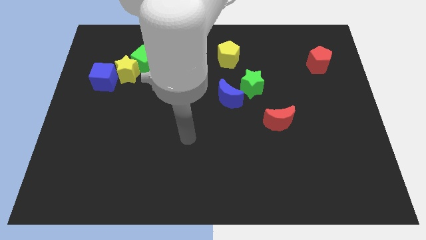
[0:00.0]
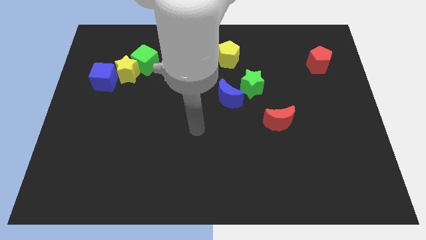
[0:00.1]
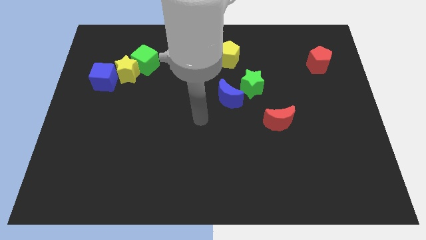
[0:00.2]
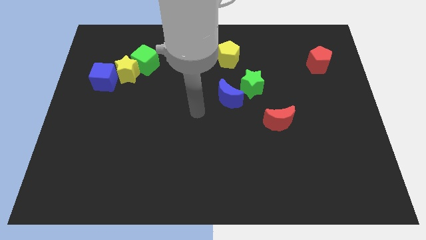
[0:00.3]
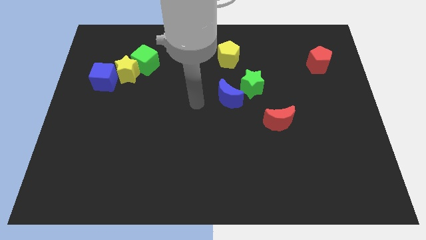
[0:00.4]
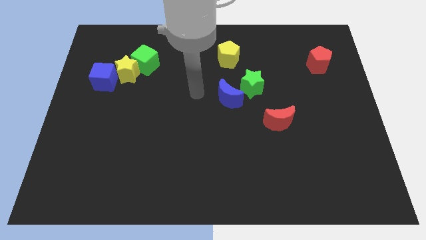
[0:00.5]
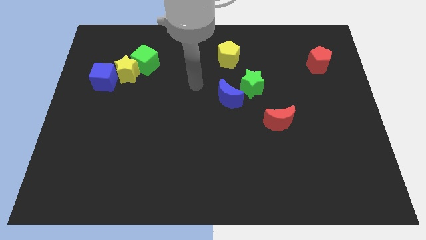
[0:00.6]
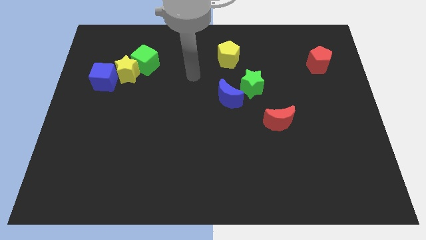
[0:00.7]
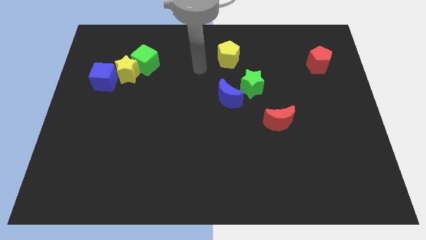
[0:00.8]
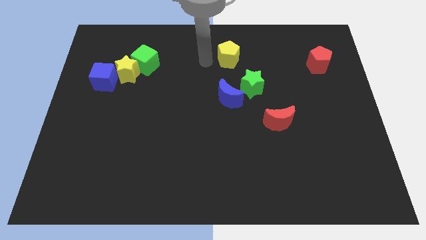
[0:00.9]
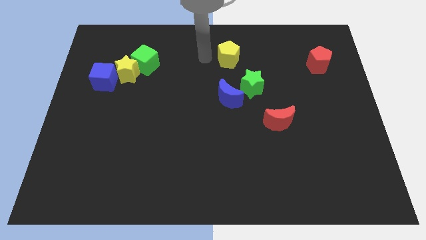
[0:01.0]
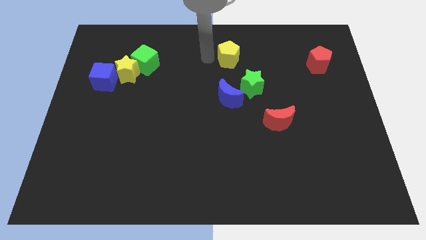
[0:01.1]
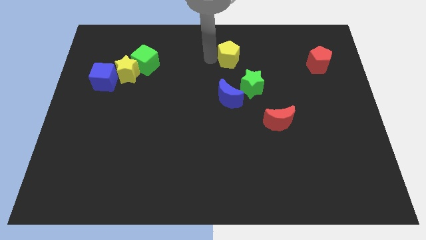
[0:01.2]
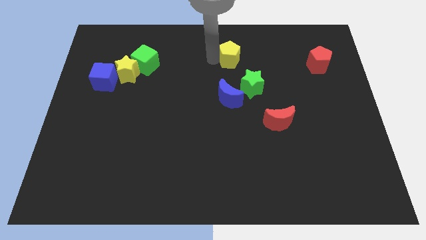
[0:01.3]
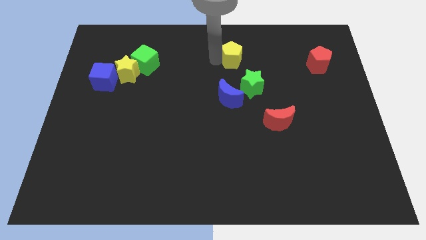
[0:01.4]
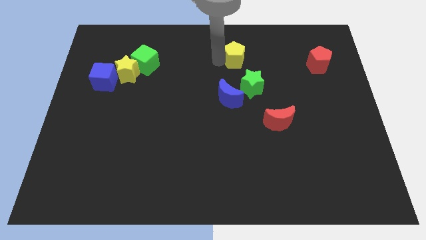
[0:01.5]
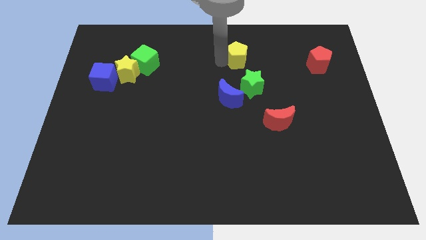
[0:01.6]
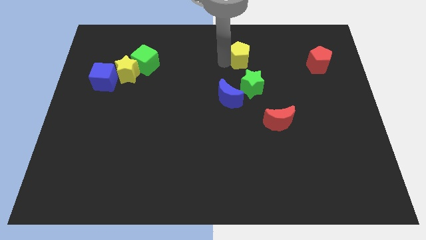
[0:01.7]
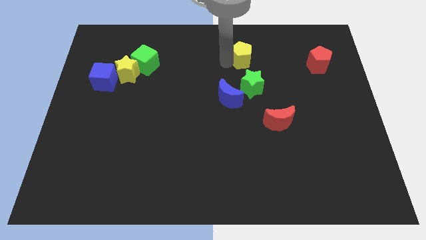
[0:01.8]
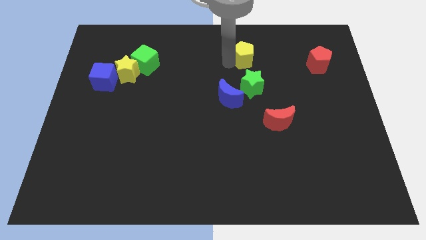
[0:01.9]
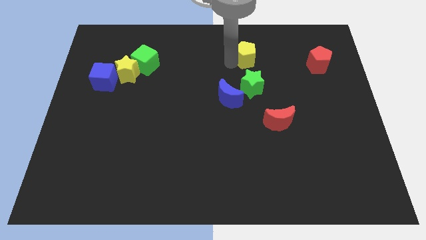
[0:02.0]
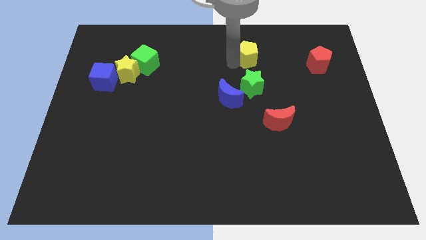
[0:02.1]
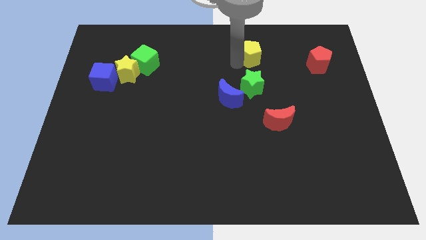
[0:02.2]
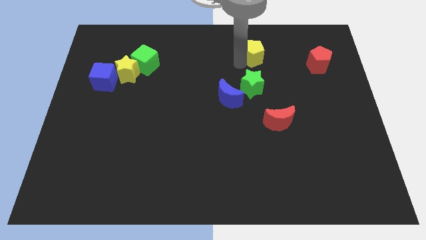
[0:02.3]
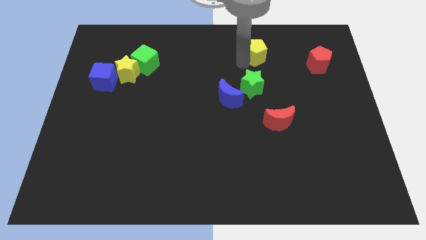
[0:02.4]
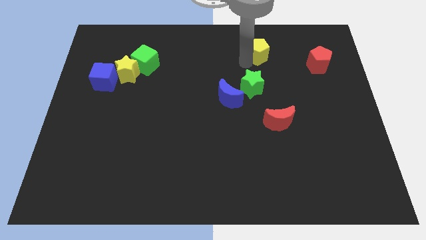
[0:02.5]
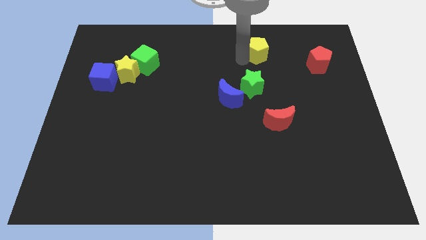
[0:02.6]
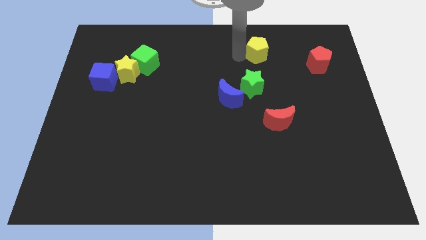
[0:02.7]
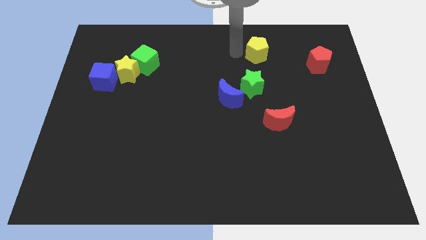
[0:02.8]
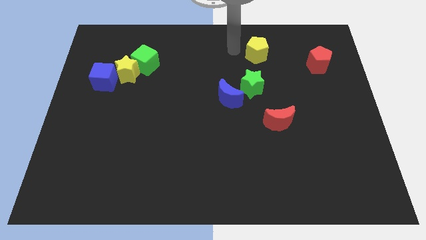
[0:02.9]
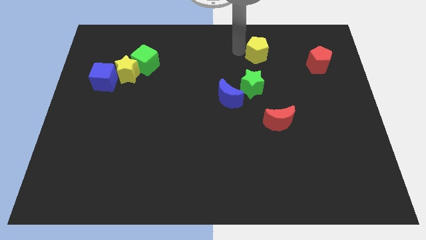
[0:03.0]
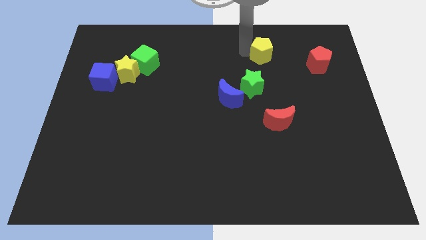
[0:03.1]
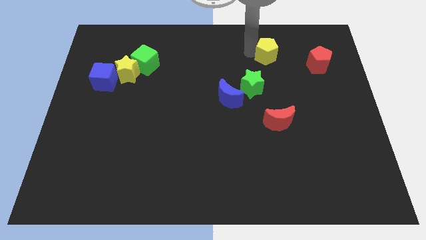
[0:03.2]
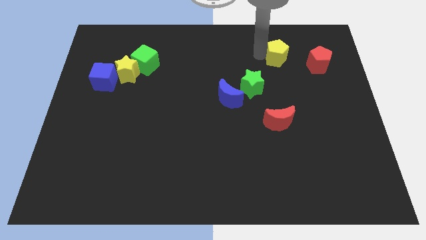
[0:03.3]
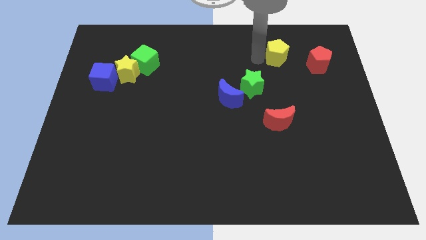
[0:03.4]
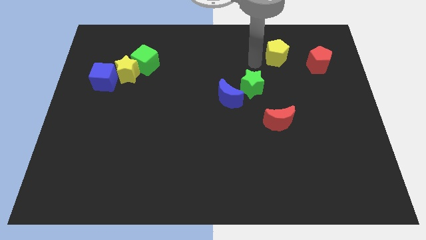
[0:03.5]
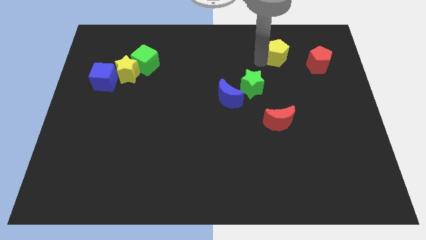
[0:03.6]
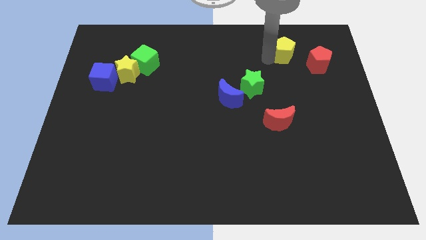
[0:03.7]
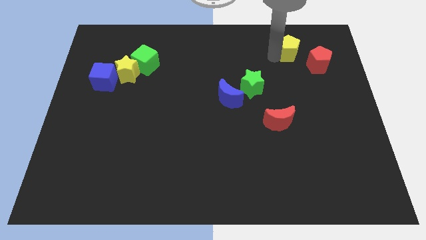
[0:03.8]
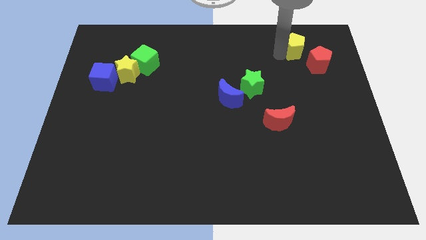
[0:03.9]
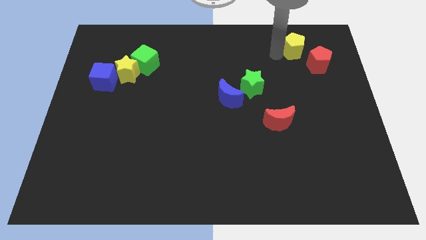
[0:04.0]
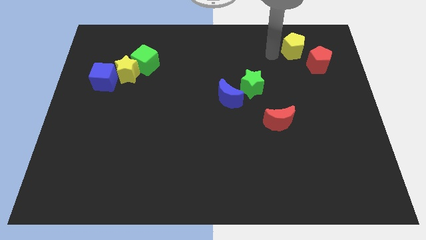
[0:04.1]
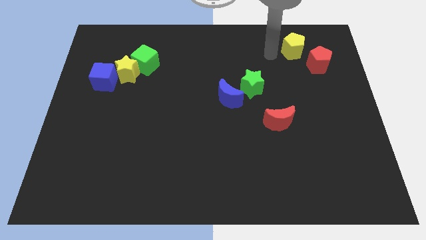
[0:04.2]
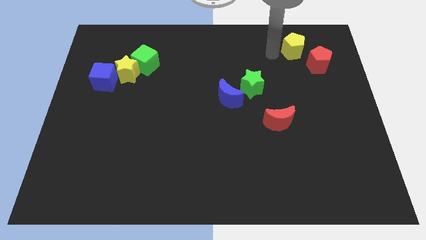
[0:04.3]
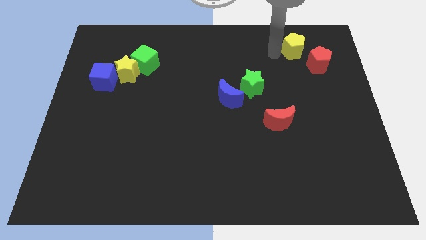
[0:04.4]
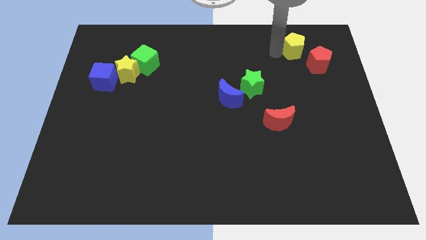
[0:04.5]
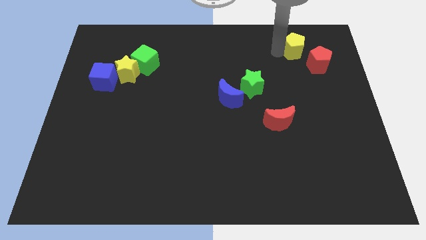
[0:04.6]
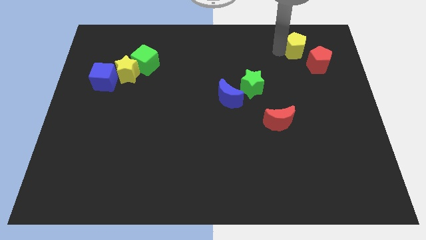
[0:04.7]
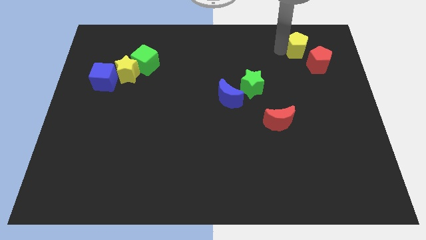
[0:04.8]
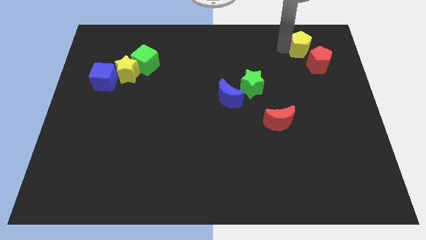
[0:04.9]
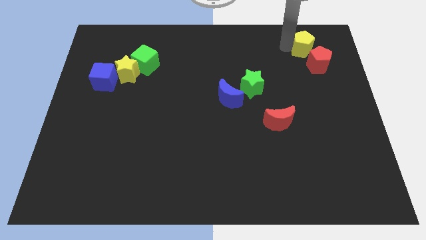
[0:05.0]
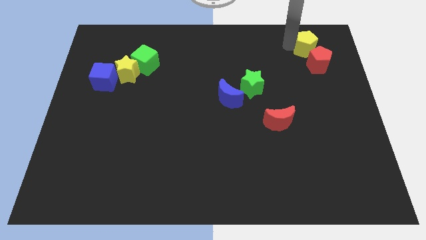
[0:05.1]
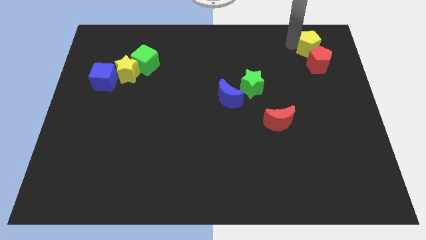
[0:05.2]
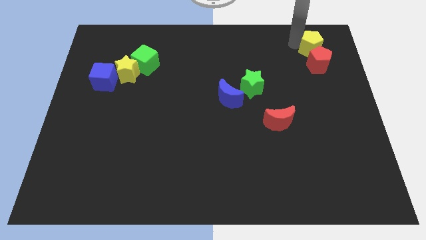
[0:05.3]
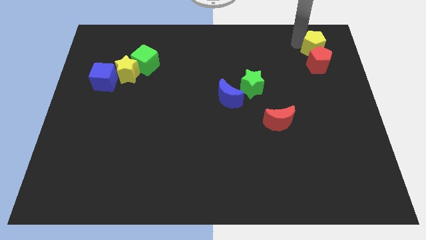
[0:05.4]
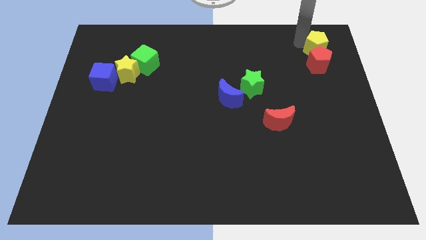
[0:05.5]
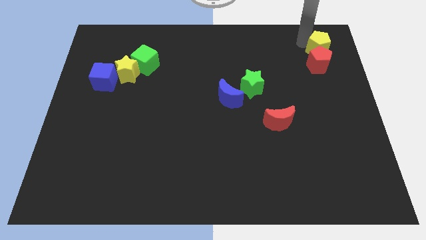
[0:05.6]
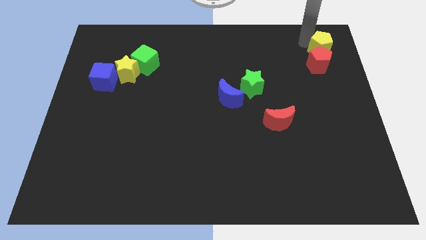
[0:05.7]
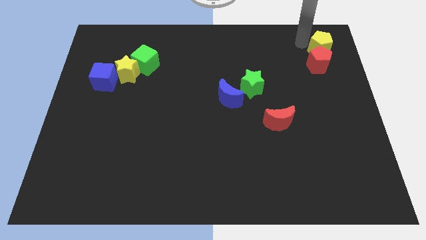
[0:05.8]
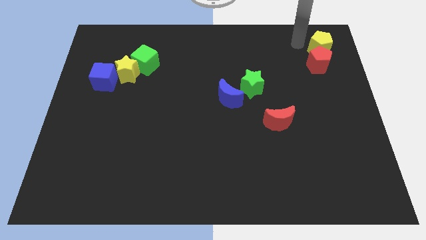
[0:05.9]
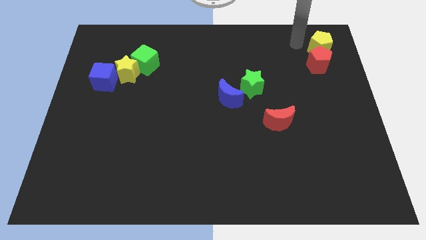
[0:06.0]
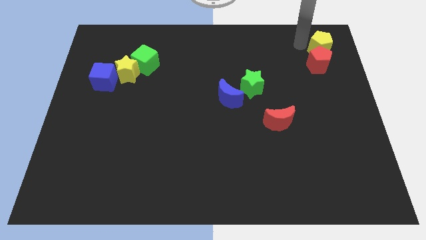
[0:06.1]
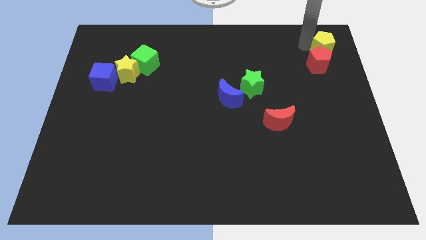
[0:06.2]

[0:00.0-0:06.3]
push the yellow pentagon to the top right

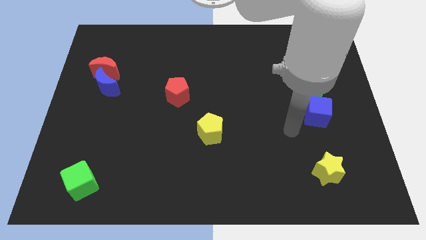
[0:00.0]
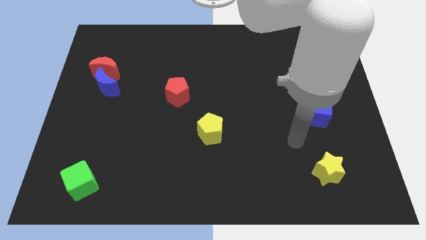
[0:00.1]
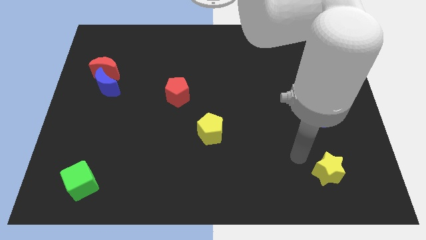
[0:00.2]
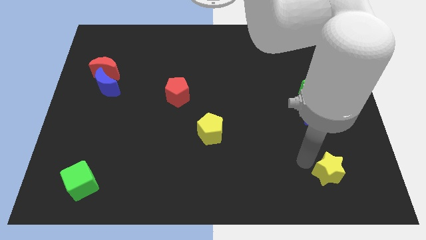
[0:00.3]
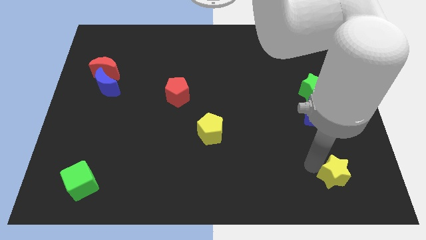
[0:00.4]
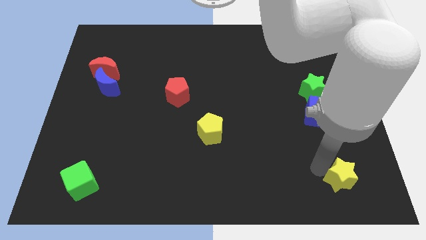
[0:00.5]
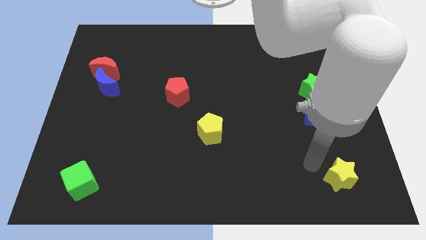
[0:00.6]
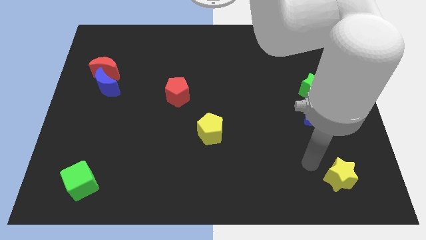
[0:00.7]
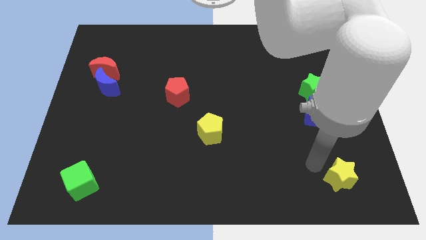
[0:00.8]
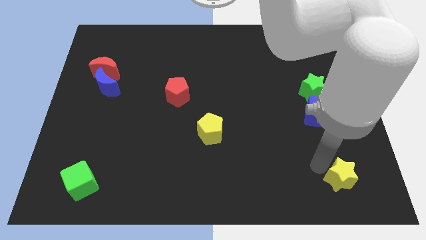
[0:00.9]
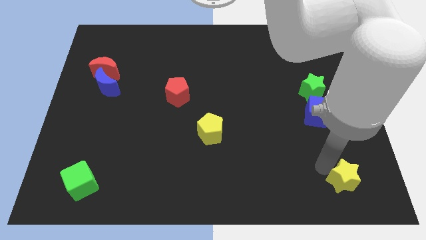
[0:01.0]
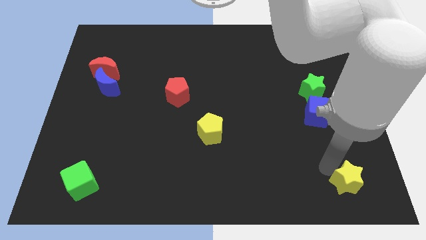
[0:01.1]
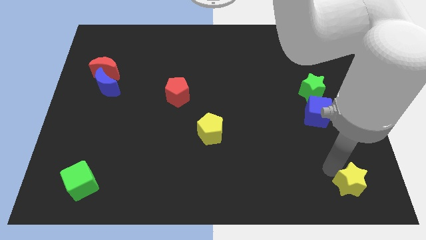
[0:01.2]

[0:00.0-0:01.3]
push the yellow star to the bottom right corner
